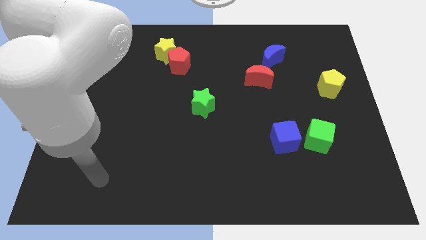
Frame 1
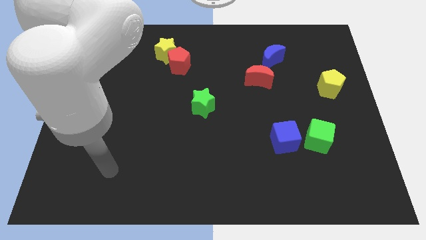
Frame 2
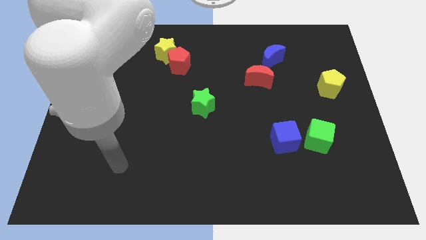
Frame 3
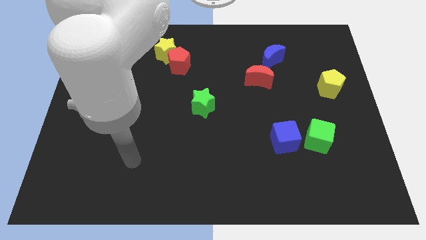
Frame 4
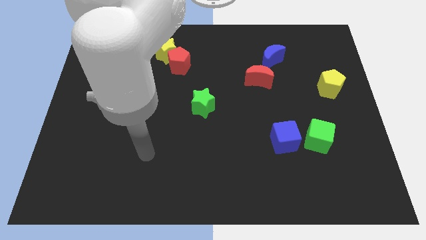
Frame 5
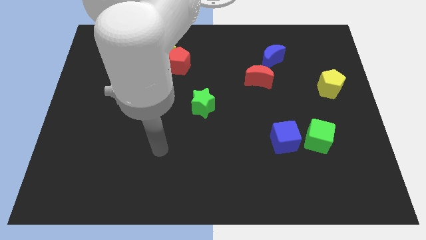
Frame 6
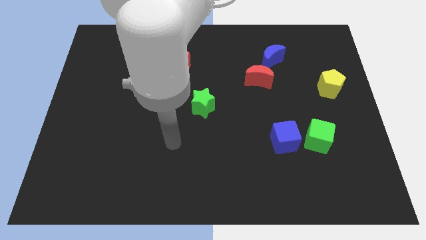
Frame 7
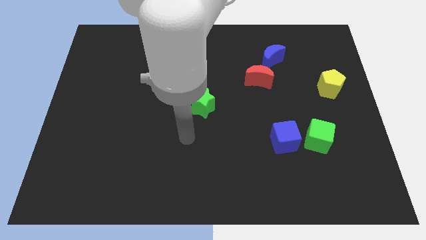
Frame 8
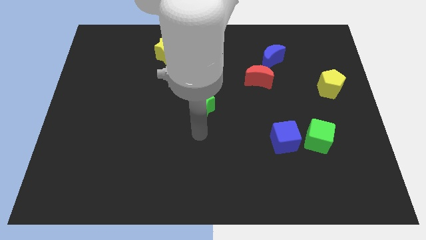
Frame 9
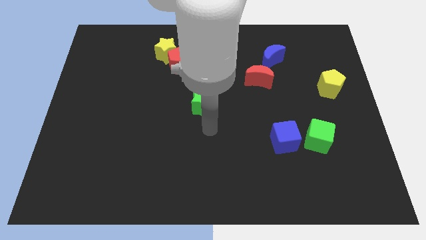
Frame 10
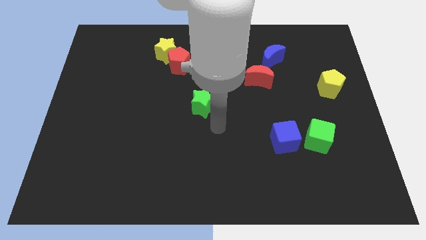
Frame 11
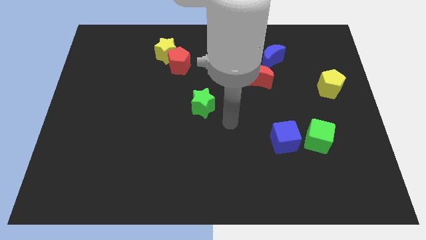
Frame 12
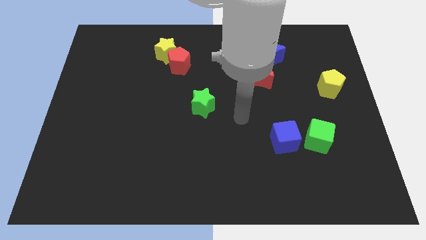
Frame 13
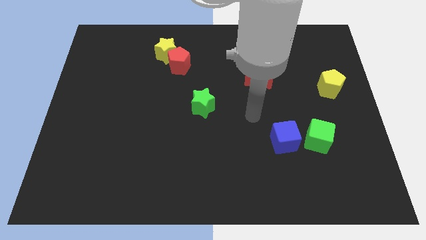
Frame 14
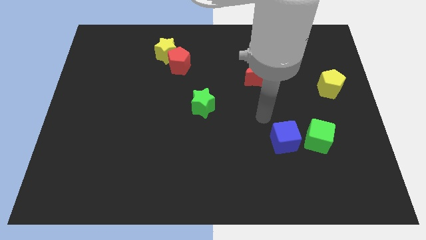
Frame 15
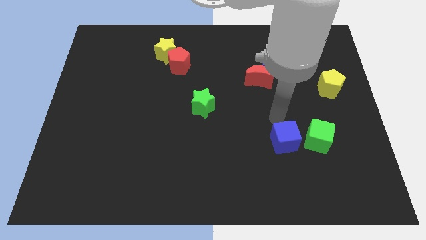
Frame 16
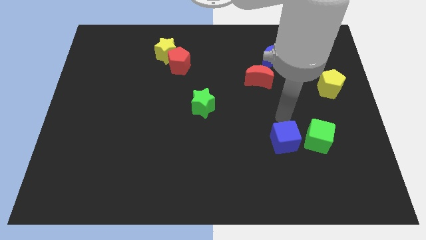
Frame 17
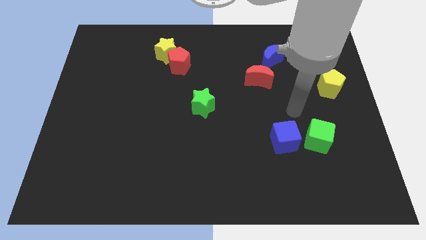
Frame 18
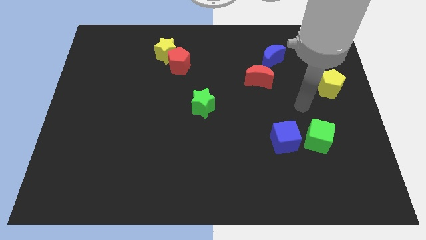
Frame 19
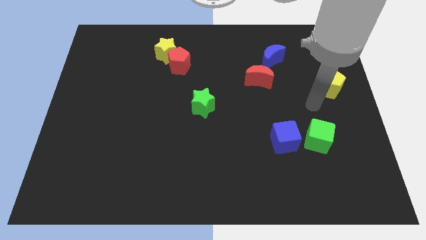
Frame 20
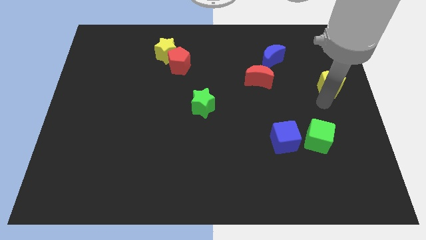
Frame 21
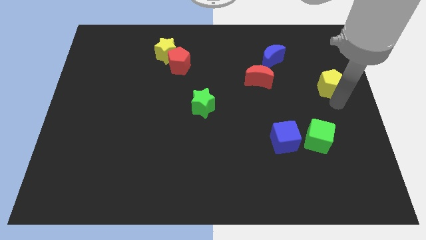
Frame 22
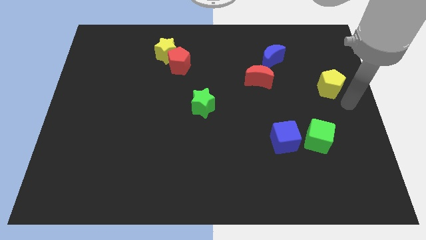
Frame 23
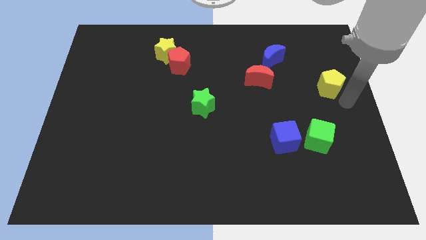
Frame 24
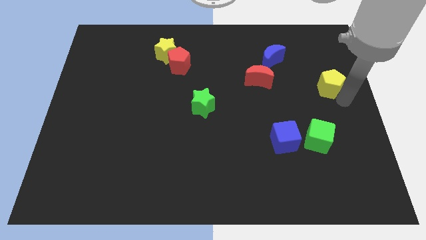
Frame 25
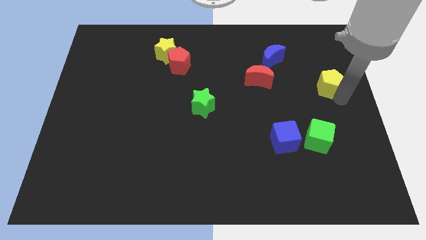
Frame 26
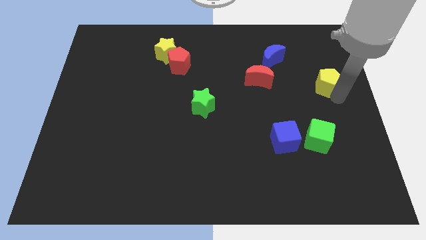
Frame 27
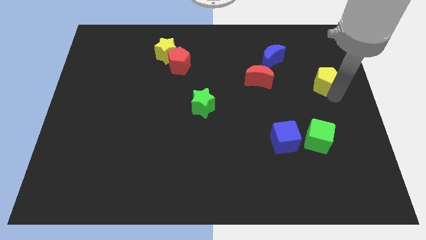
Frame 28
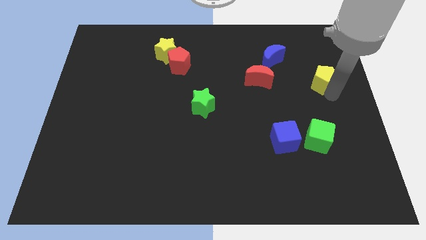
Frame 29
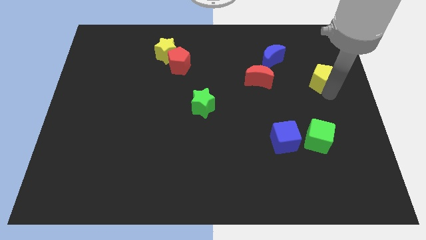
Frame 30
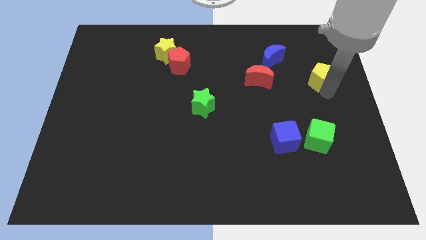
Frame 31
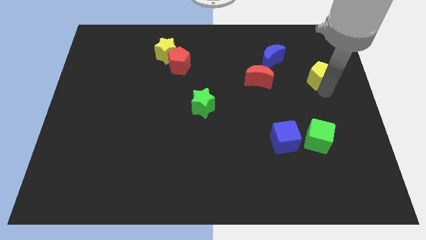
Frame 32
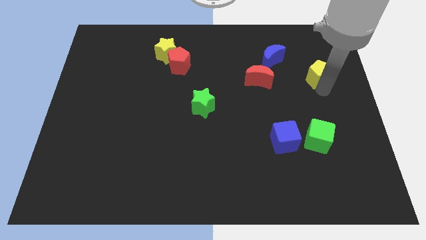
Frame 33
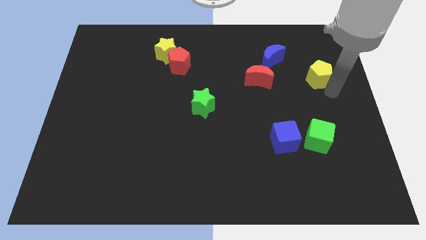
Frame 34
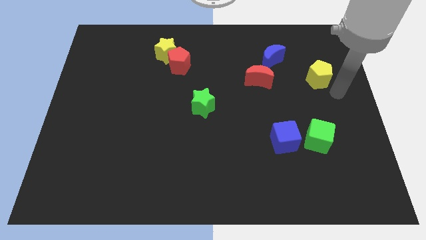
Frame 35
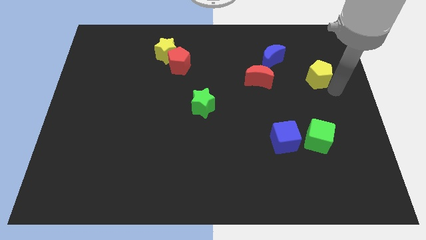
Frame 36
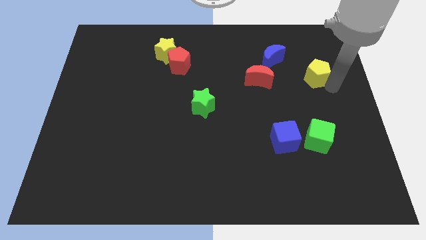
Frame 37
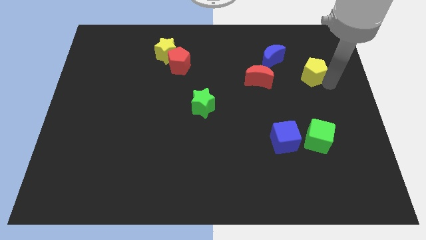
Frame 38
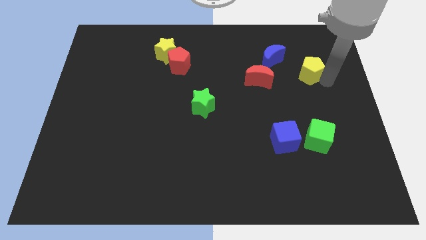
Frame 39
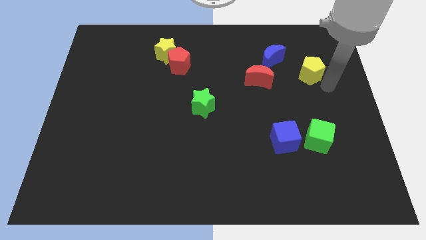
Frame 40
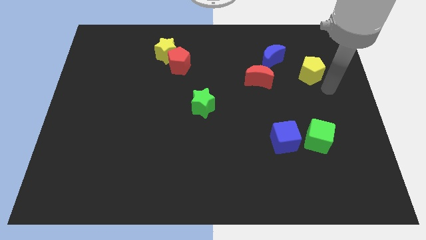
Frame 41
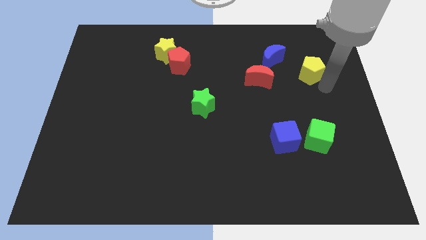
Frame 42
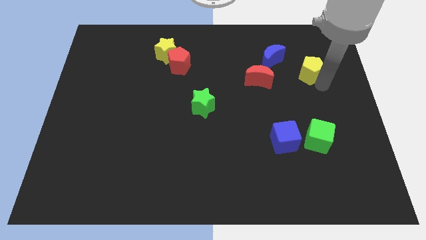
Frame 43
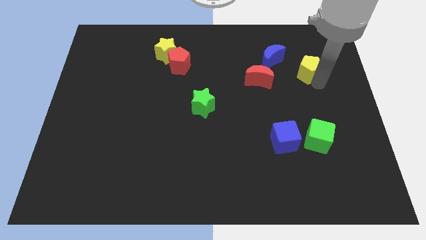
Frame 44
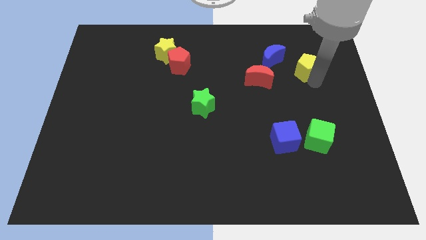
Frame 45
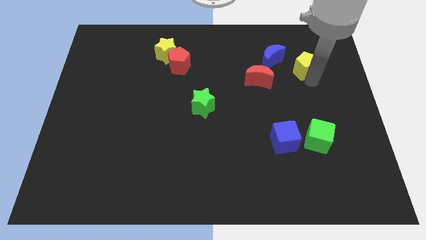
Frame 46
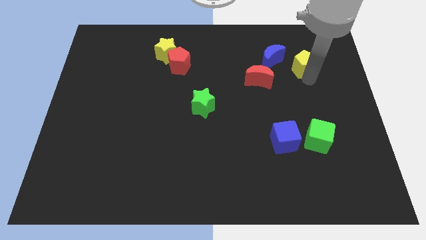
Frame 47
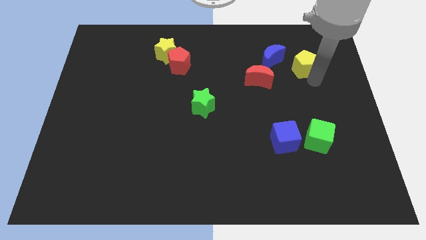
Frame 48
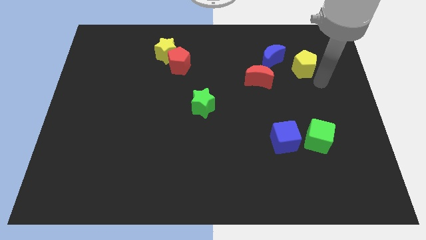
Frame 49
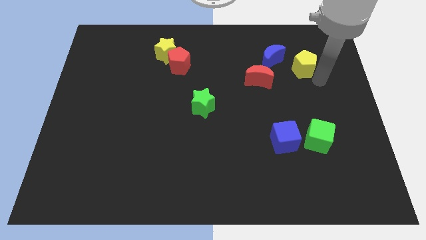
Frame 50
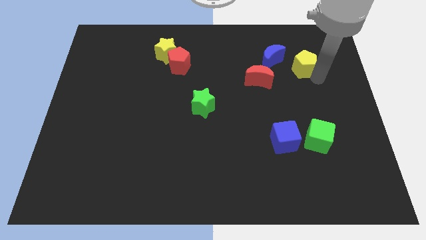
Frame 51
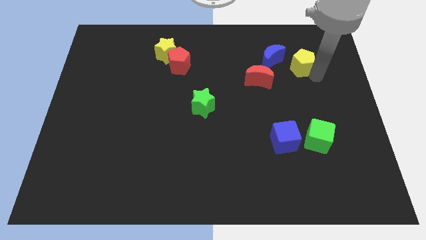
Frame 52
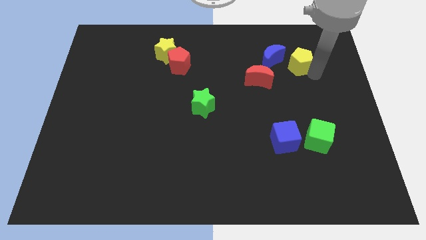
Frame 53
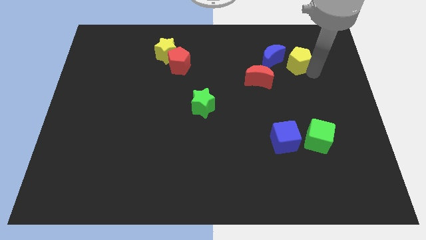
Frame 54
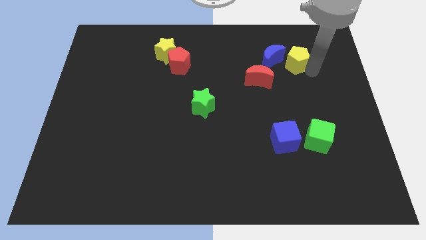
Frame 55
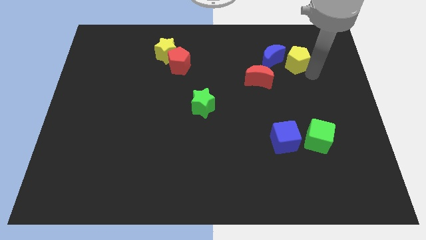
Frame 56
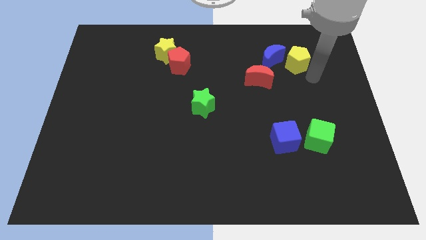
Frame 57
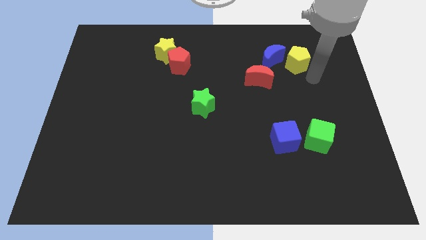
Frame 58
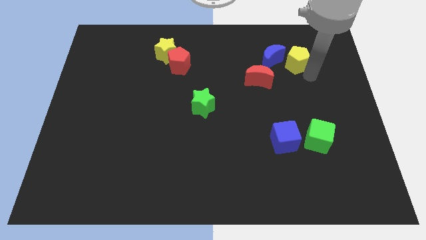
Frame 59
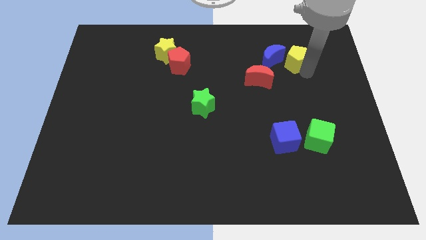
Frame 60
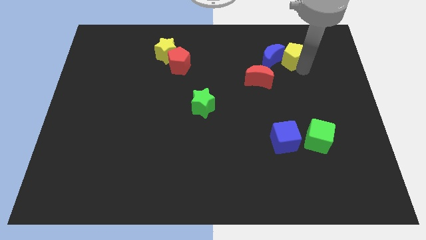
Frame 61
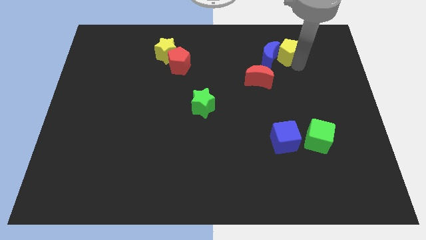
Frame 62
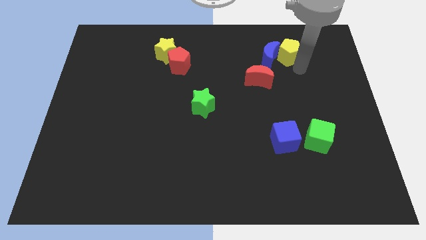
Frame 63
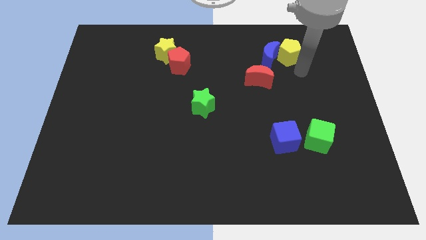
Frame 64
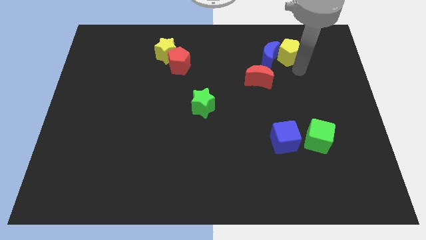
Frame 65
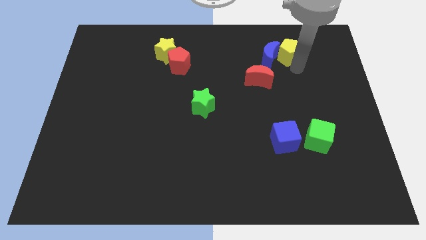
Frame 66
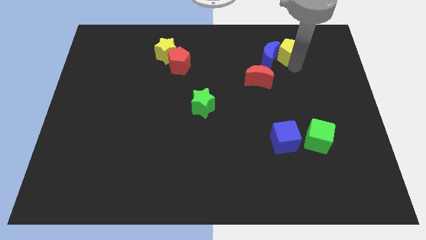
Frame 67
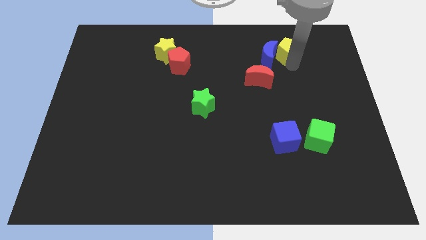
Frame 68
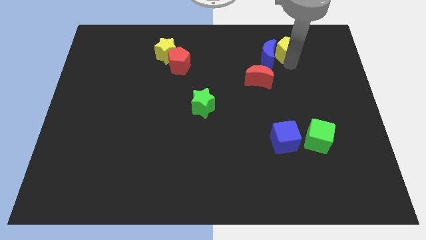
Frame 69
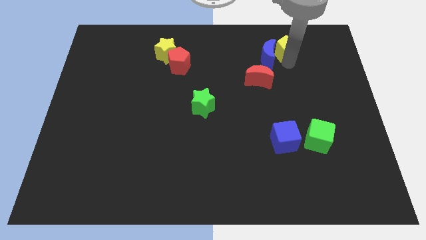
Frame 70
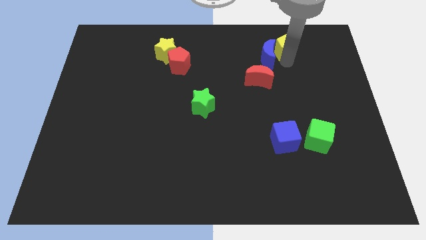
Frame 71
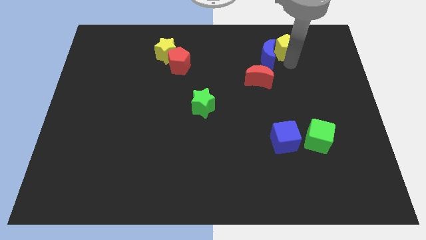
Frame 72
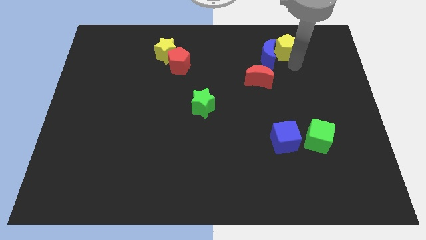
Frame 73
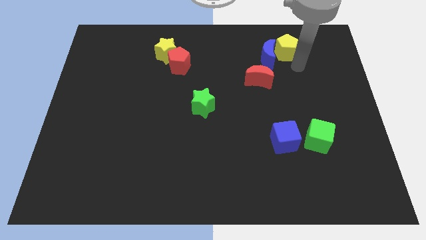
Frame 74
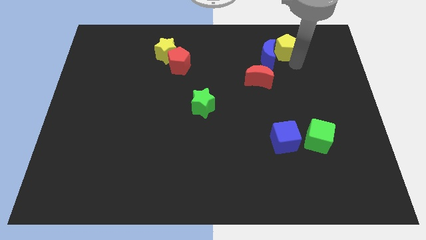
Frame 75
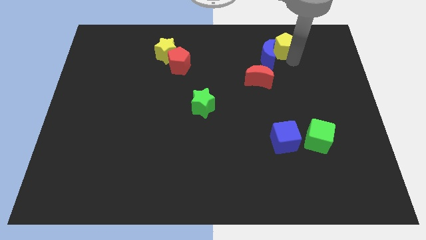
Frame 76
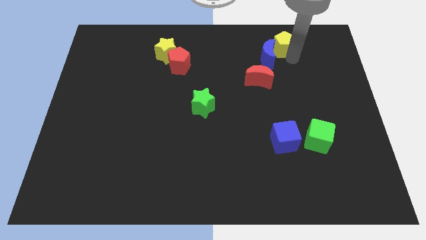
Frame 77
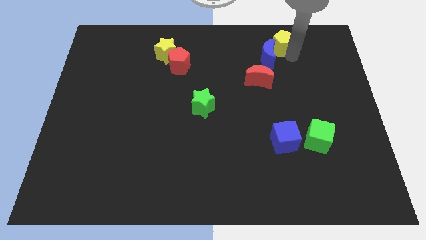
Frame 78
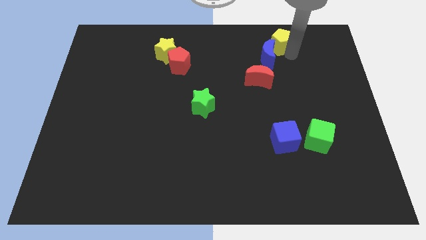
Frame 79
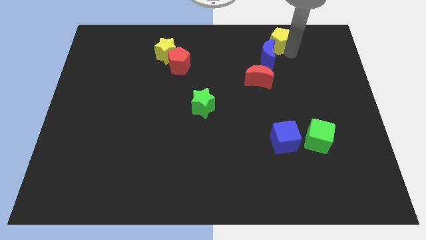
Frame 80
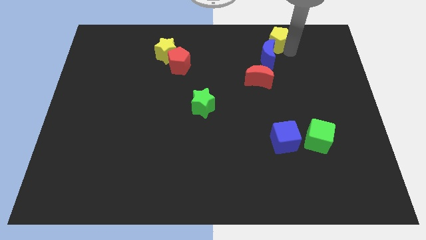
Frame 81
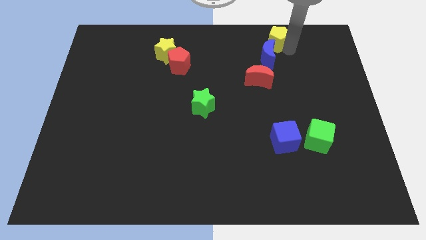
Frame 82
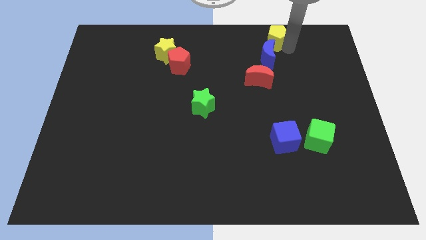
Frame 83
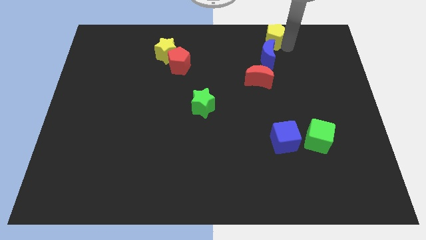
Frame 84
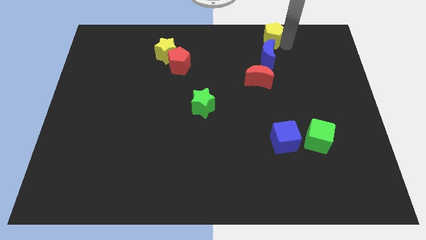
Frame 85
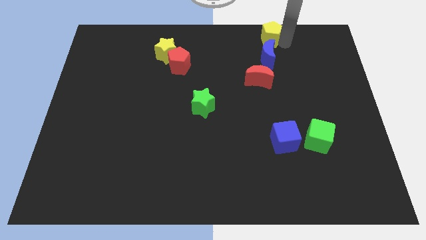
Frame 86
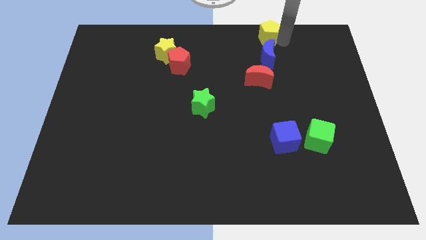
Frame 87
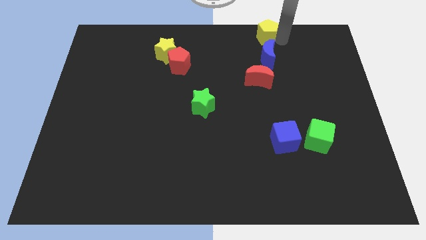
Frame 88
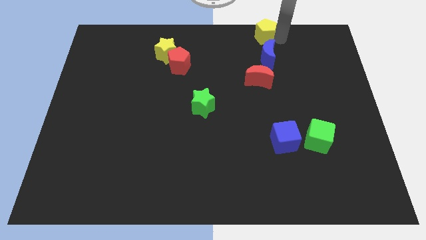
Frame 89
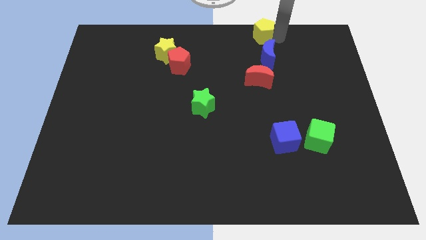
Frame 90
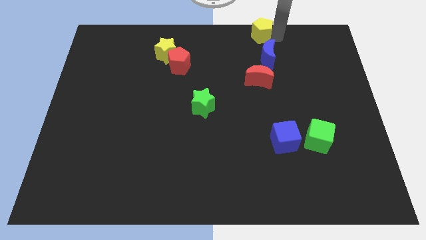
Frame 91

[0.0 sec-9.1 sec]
move the yellow pentagon to the towards your base
